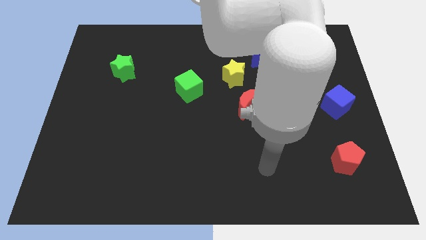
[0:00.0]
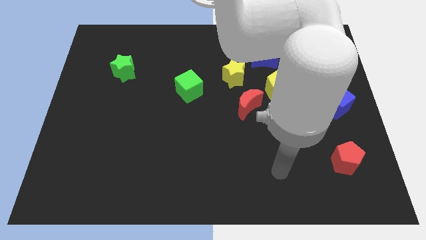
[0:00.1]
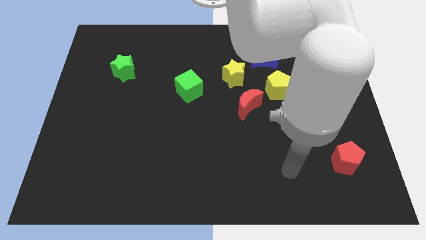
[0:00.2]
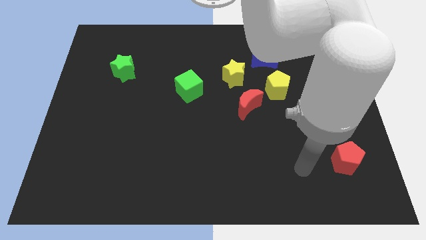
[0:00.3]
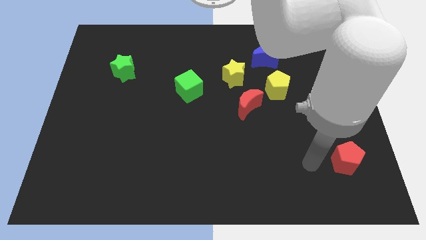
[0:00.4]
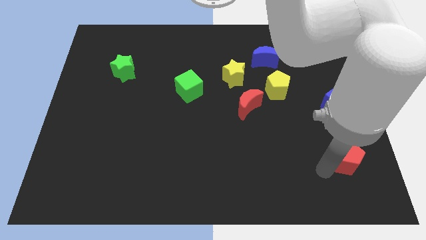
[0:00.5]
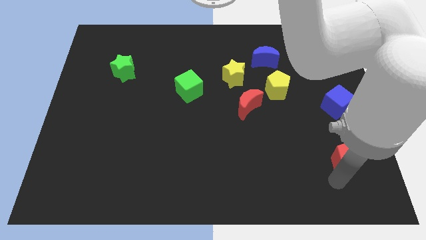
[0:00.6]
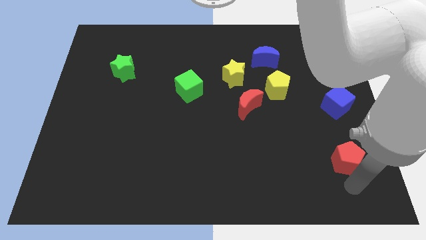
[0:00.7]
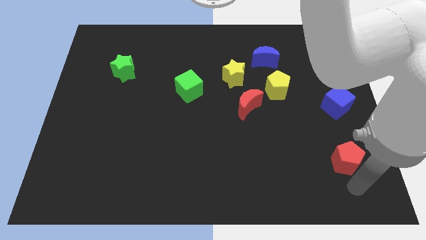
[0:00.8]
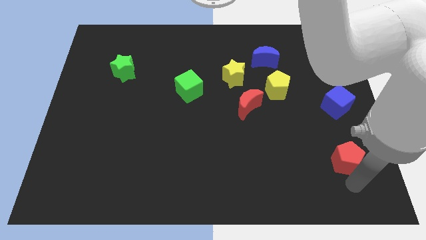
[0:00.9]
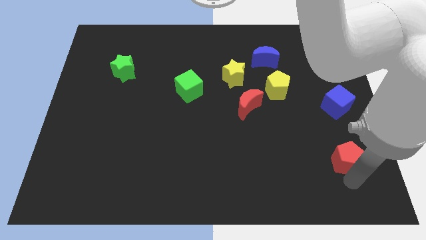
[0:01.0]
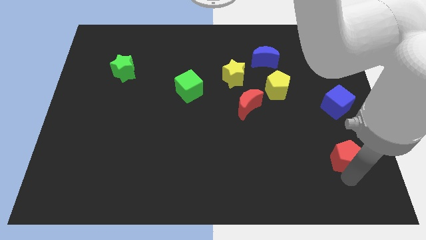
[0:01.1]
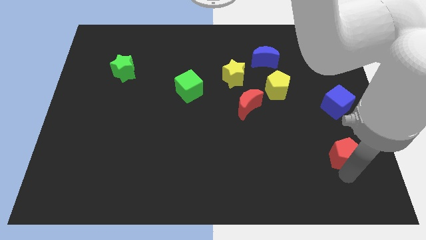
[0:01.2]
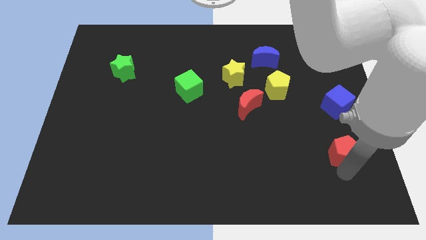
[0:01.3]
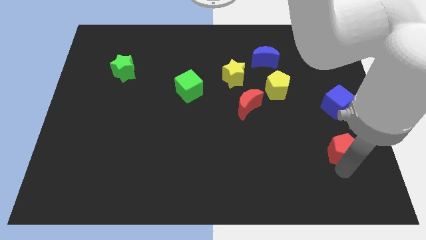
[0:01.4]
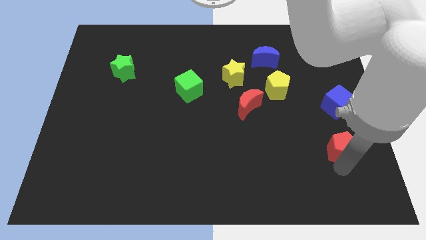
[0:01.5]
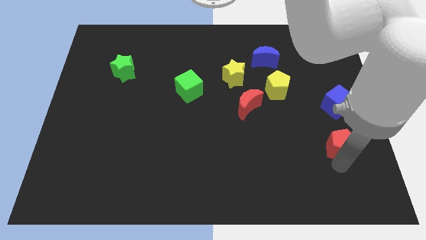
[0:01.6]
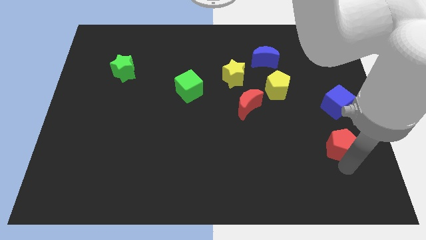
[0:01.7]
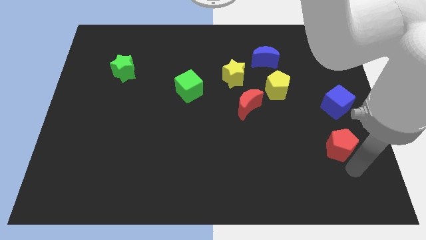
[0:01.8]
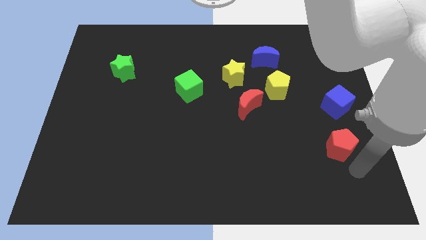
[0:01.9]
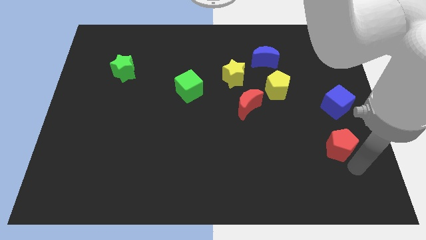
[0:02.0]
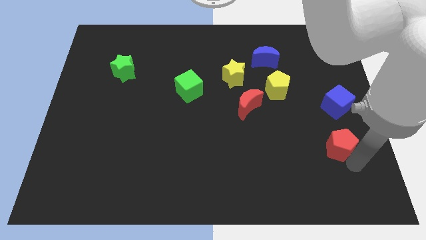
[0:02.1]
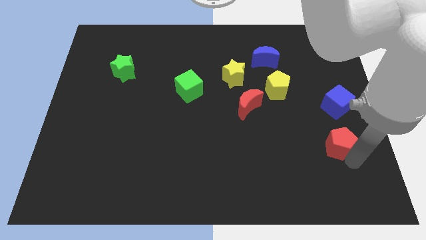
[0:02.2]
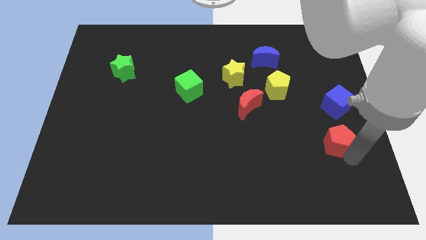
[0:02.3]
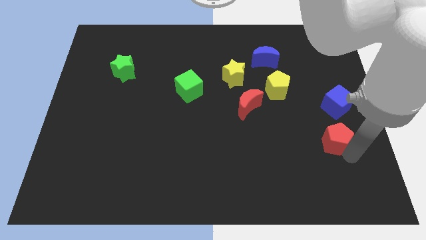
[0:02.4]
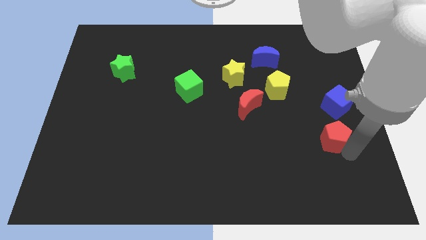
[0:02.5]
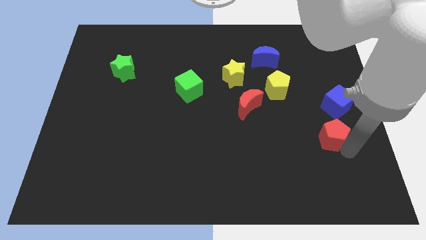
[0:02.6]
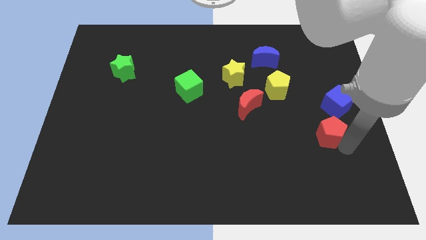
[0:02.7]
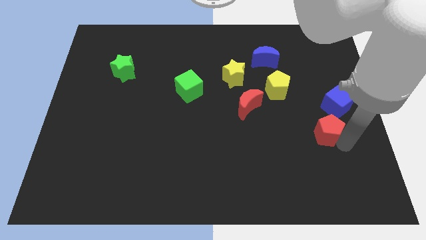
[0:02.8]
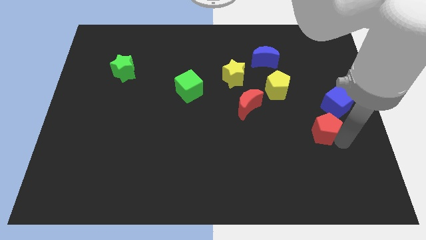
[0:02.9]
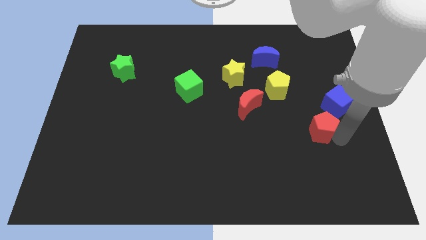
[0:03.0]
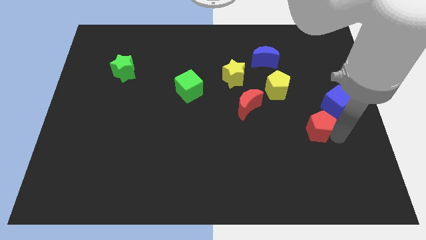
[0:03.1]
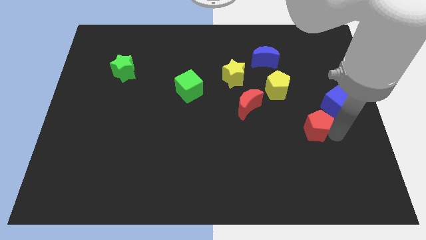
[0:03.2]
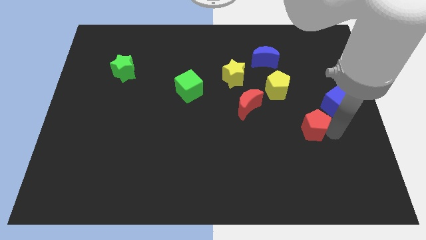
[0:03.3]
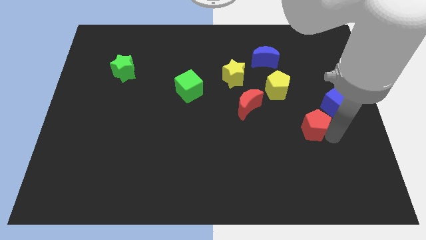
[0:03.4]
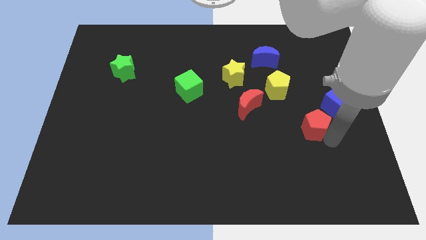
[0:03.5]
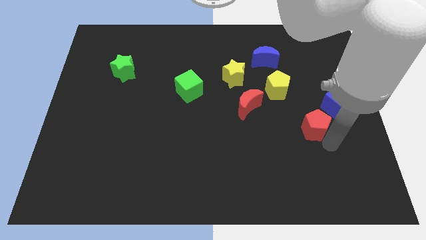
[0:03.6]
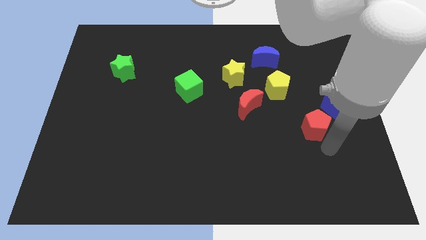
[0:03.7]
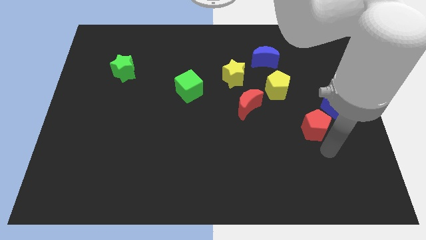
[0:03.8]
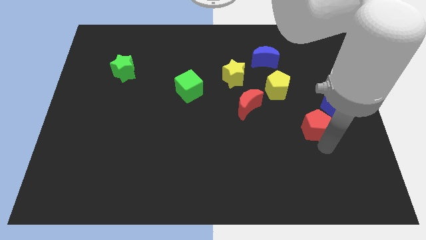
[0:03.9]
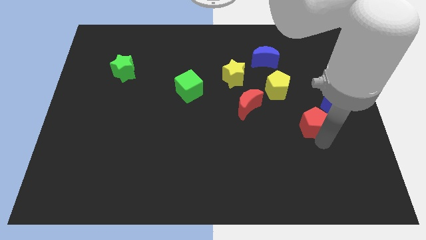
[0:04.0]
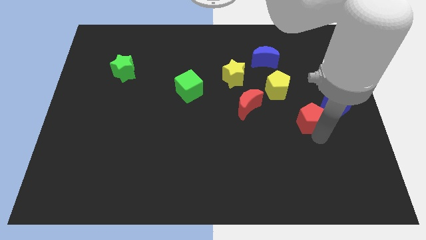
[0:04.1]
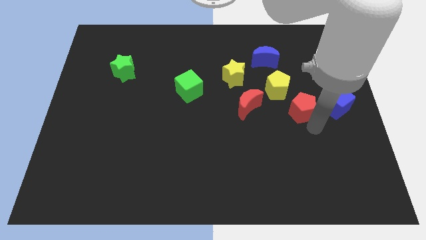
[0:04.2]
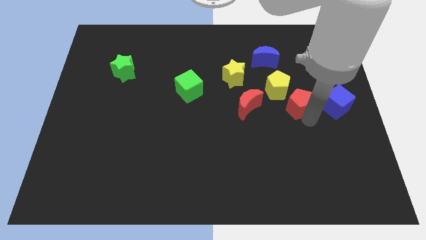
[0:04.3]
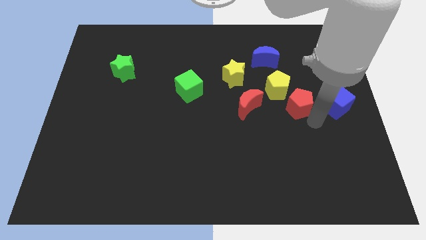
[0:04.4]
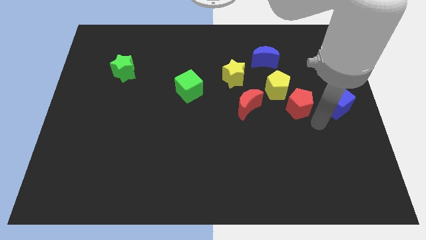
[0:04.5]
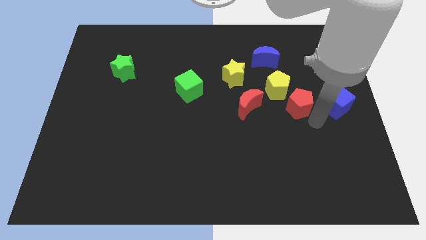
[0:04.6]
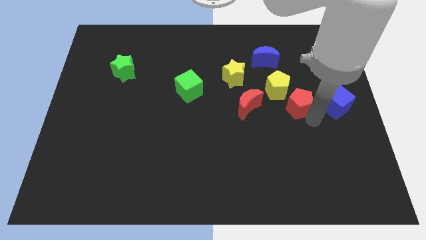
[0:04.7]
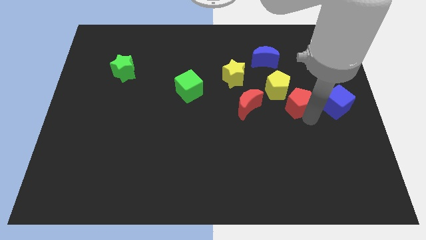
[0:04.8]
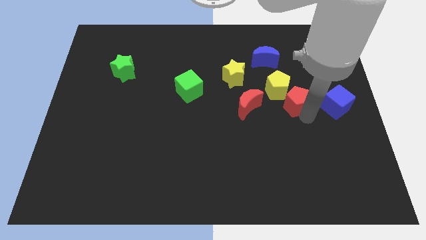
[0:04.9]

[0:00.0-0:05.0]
slide the red pentagon to the yellow pentagon

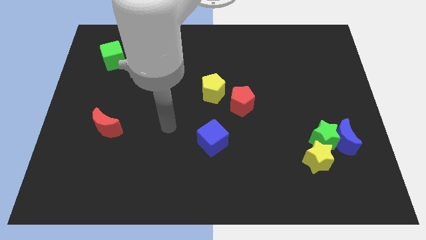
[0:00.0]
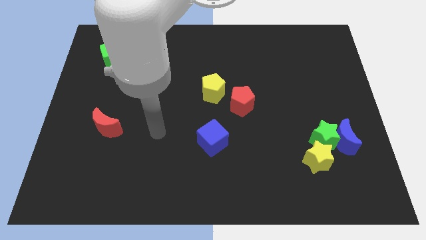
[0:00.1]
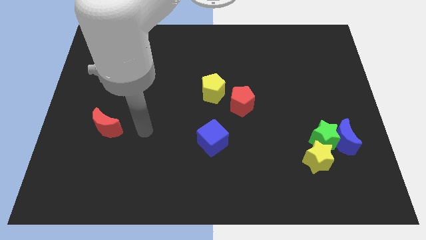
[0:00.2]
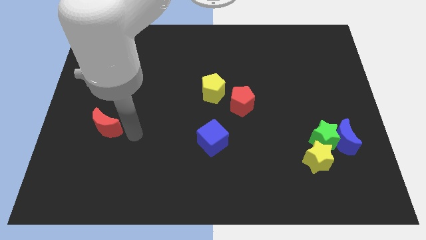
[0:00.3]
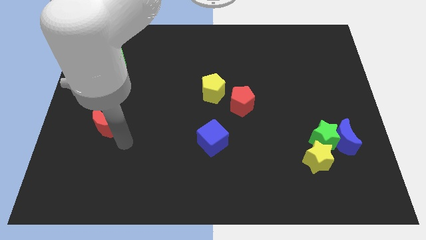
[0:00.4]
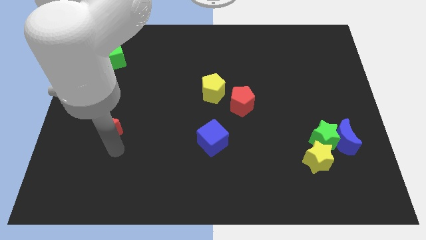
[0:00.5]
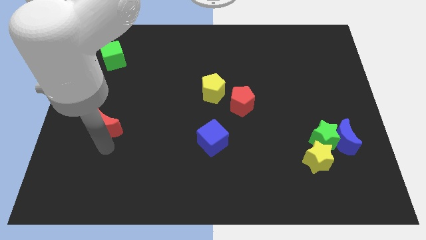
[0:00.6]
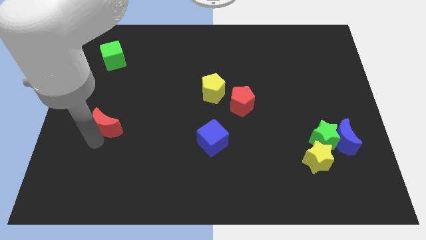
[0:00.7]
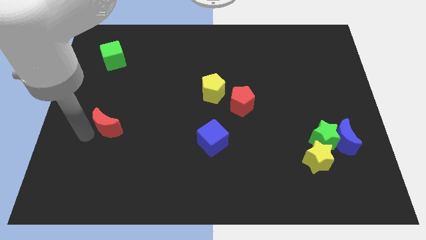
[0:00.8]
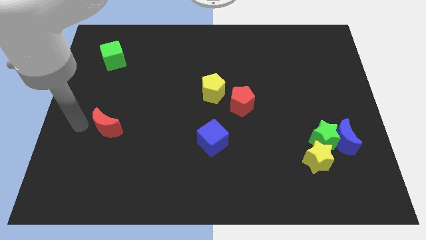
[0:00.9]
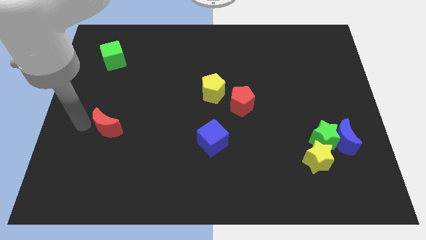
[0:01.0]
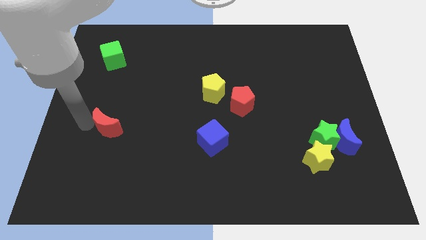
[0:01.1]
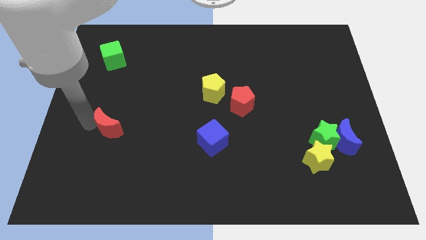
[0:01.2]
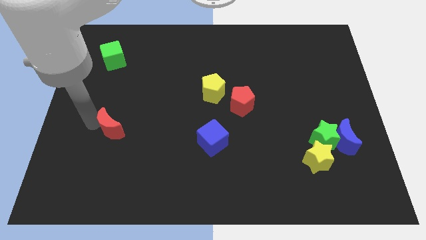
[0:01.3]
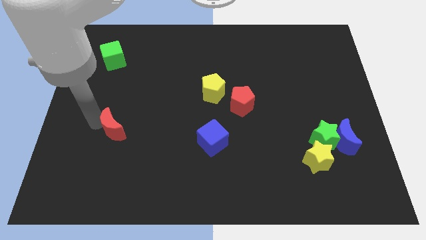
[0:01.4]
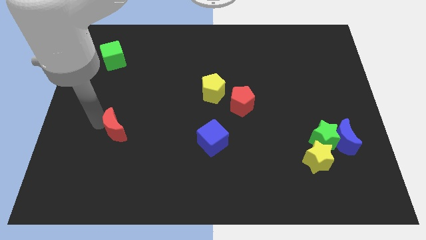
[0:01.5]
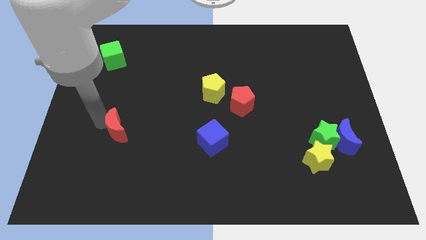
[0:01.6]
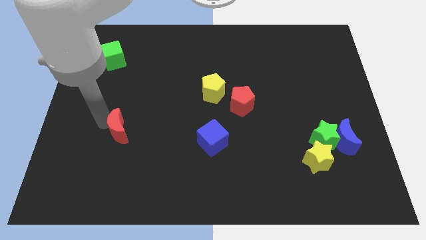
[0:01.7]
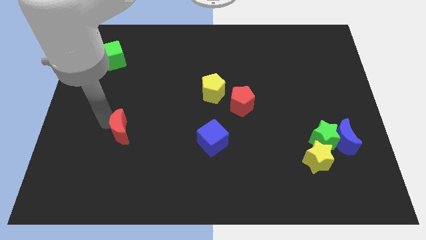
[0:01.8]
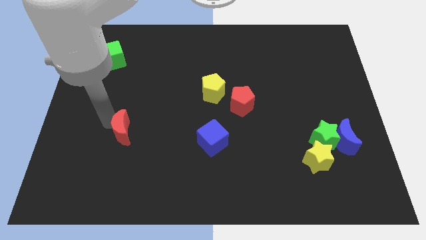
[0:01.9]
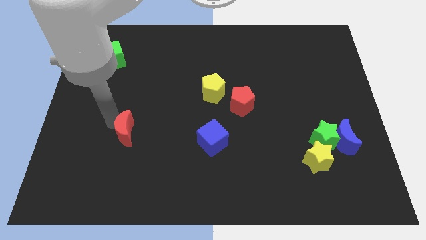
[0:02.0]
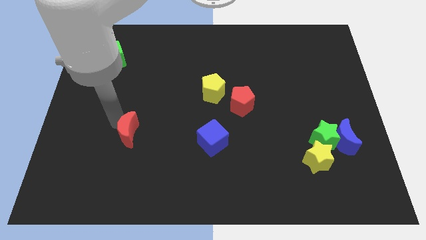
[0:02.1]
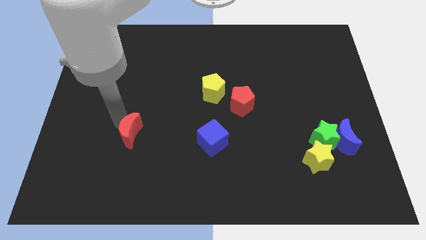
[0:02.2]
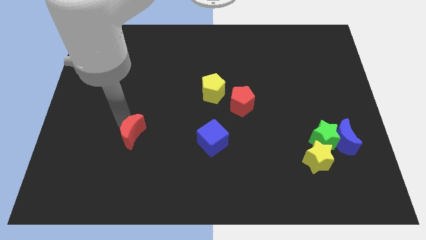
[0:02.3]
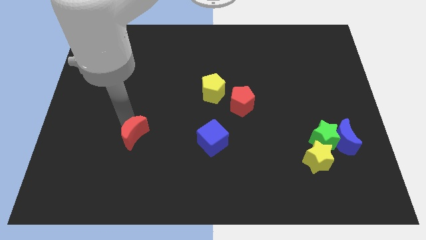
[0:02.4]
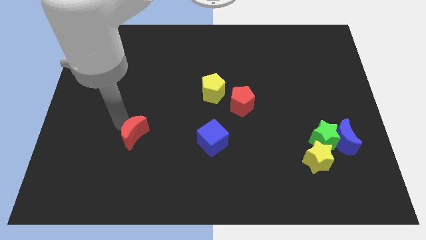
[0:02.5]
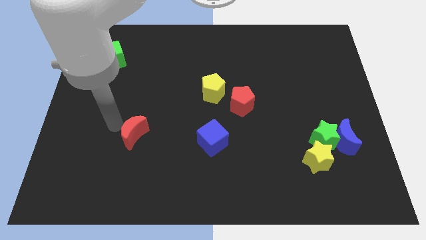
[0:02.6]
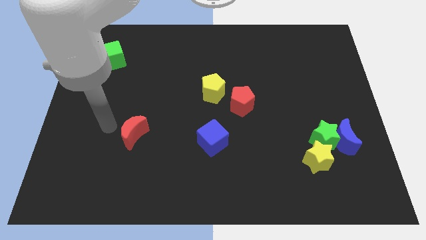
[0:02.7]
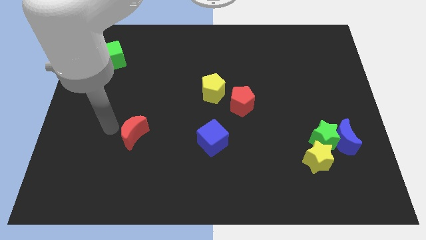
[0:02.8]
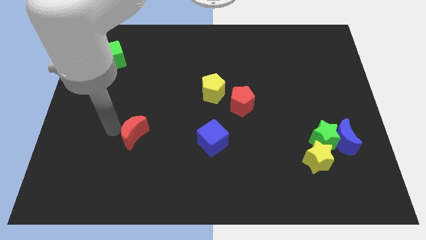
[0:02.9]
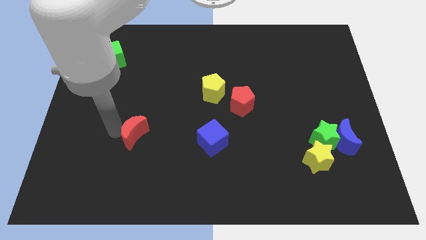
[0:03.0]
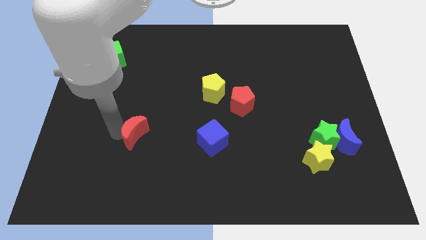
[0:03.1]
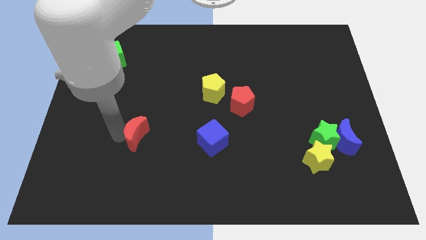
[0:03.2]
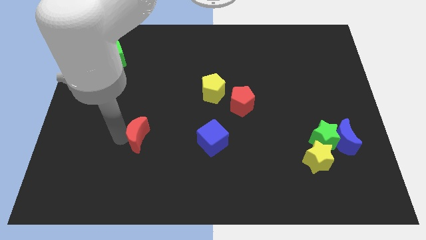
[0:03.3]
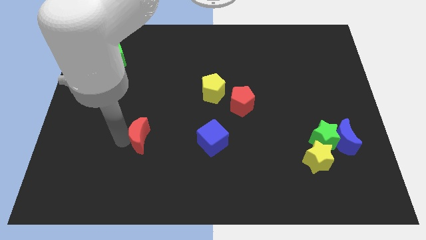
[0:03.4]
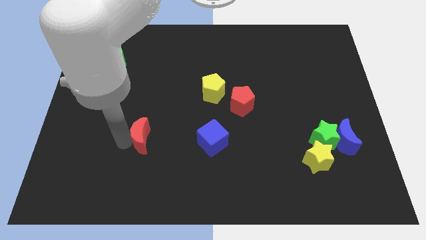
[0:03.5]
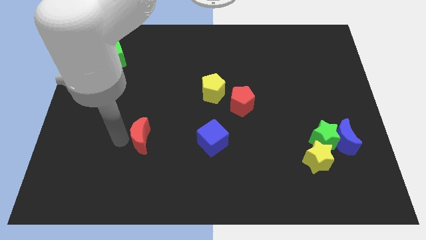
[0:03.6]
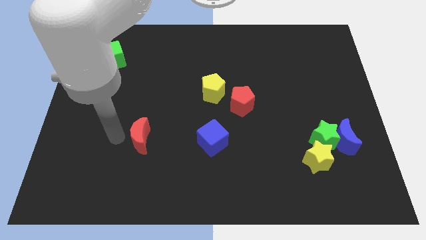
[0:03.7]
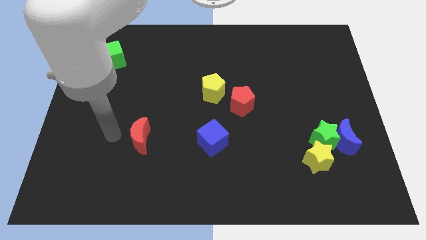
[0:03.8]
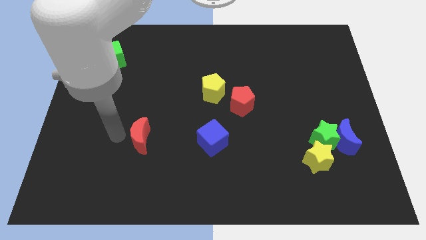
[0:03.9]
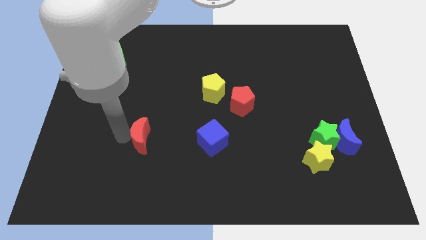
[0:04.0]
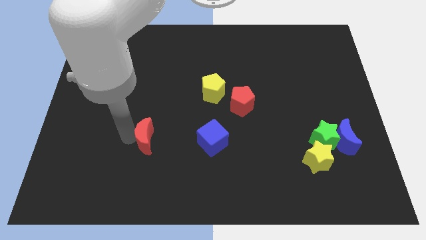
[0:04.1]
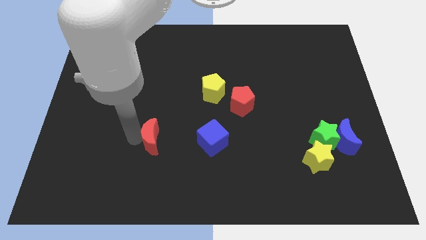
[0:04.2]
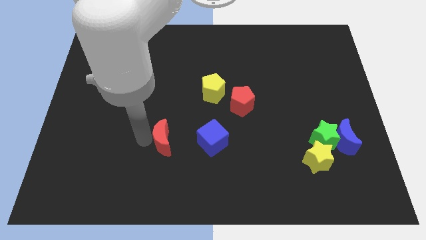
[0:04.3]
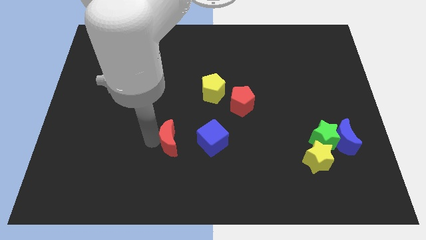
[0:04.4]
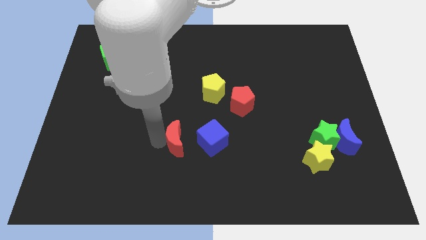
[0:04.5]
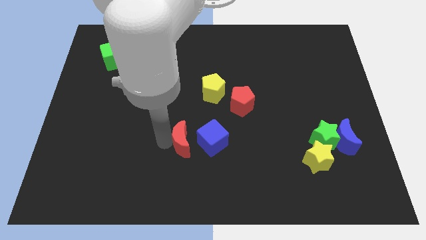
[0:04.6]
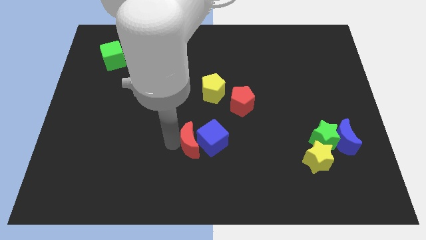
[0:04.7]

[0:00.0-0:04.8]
put the red moon to the blue cube
